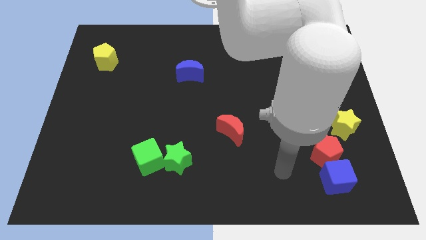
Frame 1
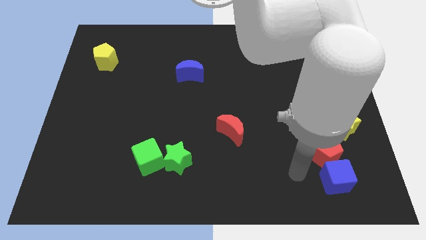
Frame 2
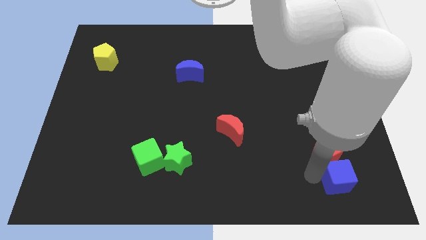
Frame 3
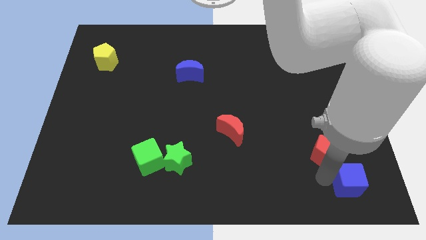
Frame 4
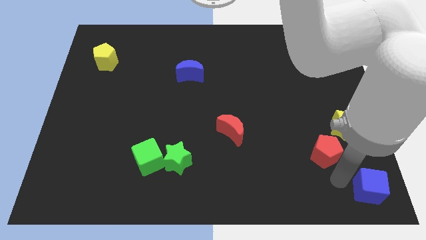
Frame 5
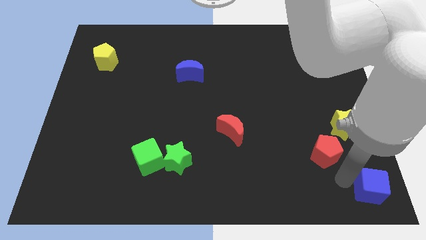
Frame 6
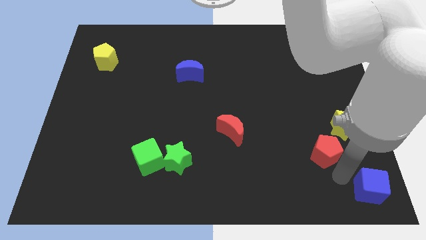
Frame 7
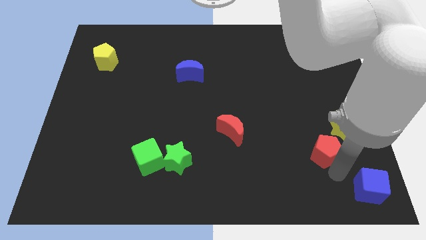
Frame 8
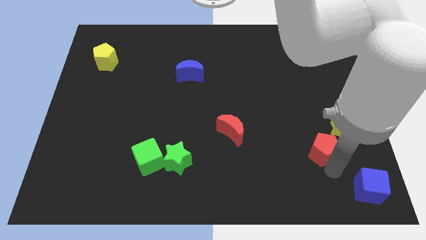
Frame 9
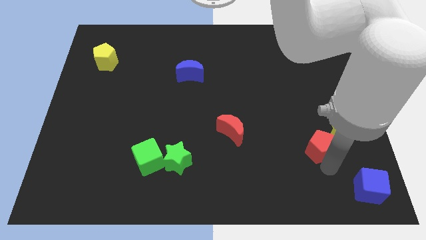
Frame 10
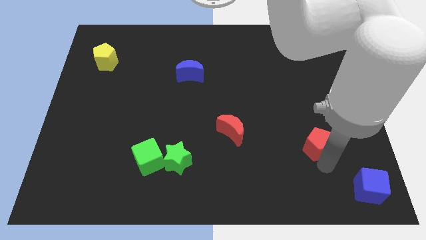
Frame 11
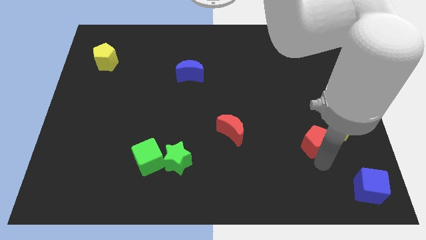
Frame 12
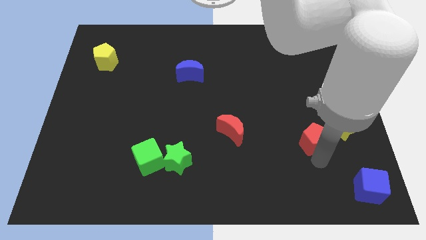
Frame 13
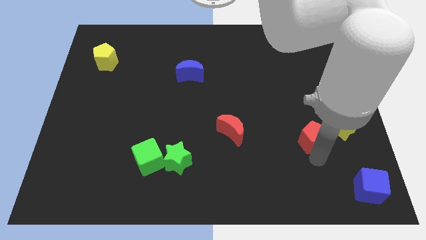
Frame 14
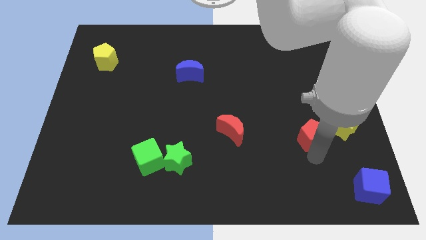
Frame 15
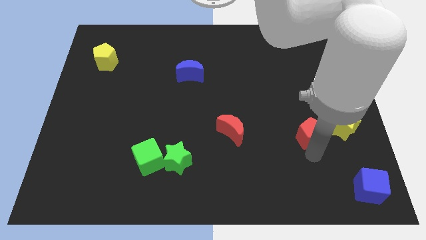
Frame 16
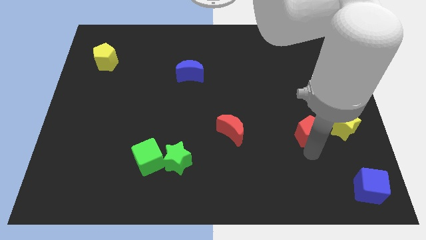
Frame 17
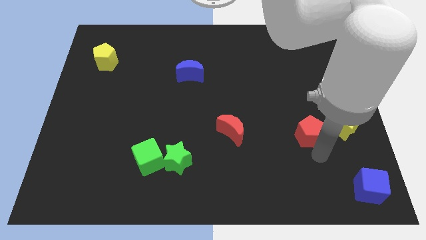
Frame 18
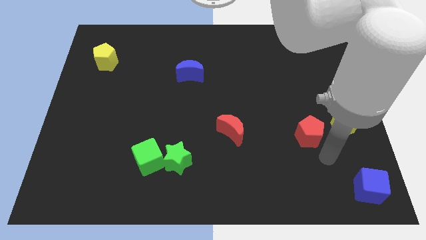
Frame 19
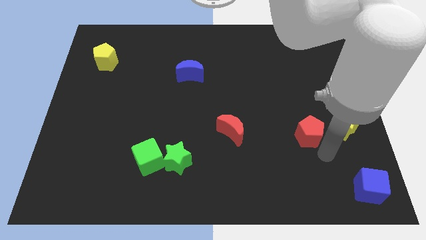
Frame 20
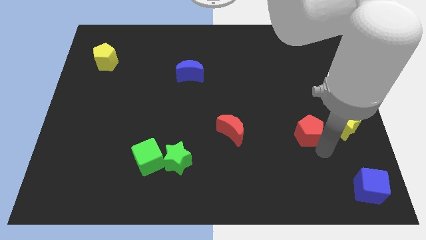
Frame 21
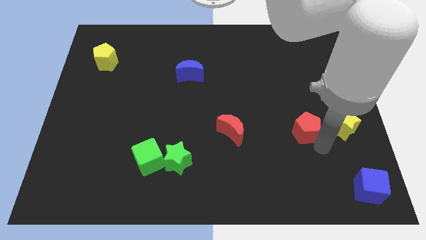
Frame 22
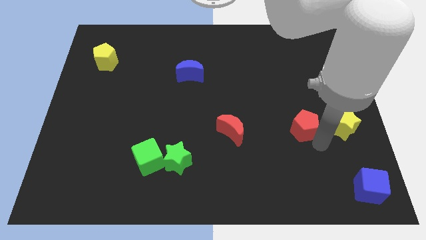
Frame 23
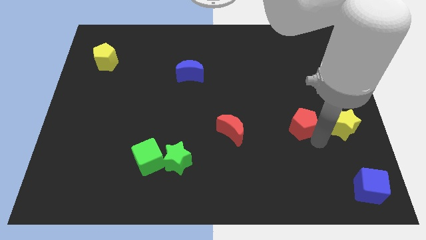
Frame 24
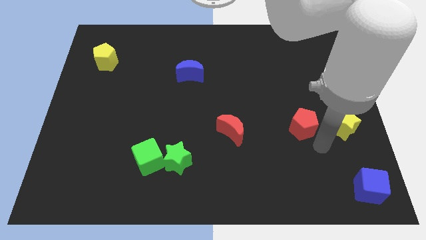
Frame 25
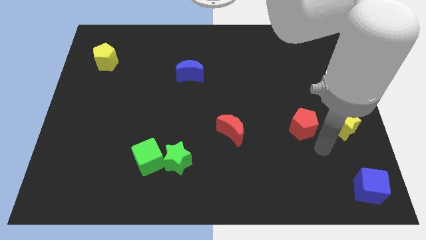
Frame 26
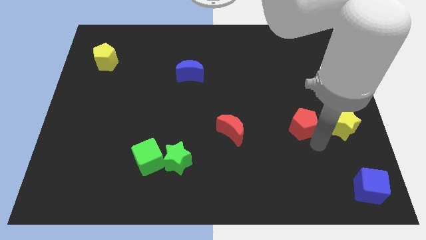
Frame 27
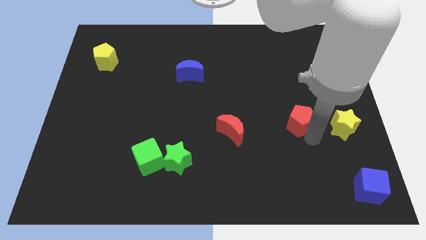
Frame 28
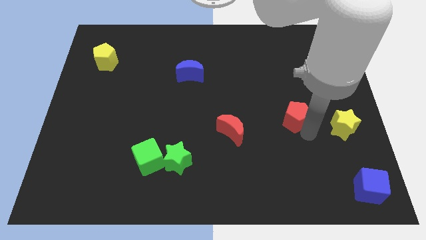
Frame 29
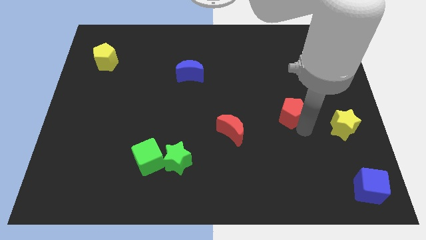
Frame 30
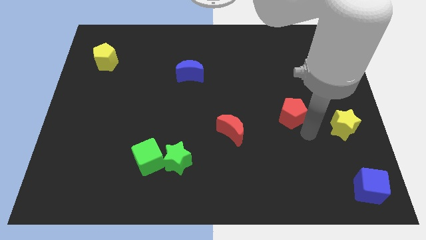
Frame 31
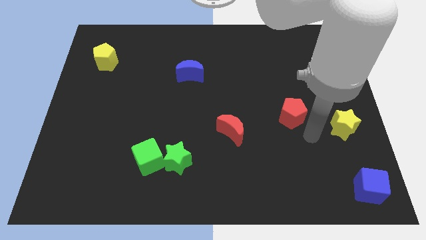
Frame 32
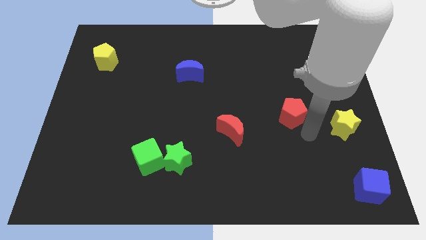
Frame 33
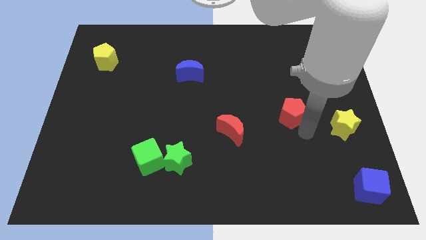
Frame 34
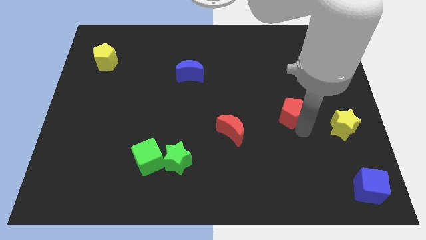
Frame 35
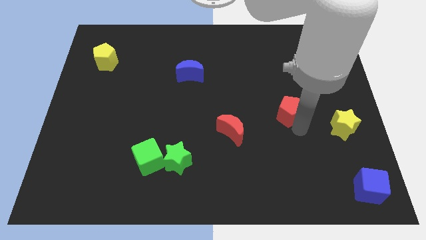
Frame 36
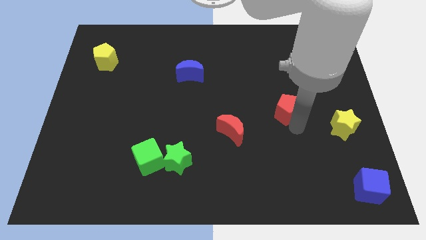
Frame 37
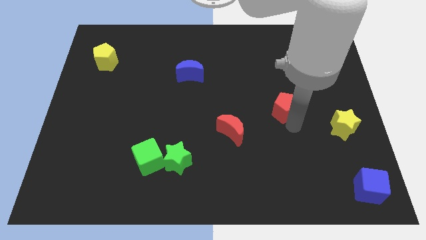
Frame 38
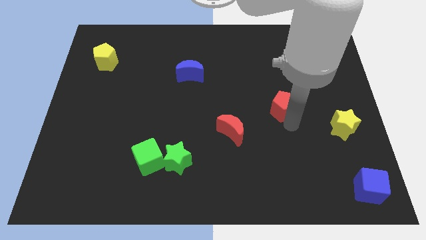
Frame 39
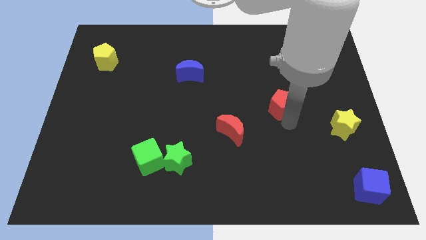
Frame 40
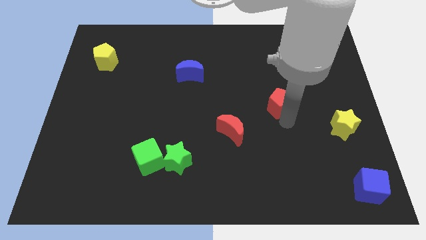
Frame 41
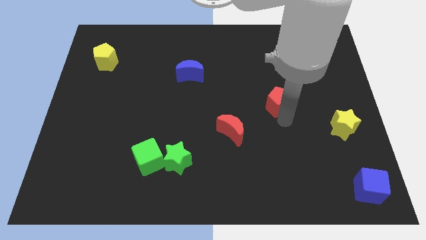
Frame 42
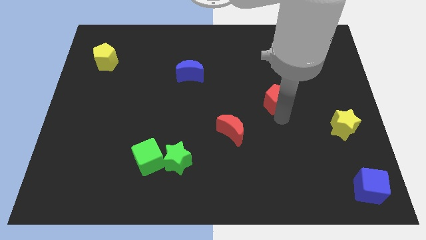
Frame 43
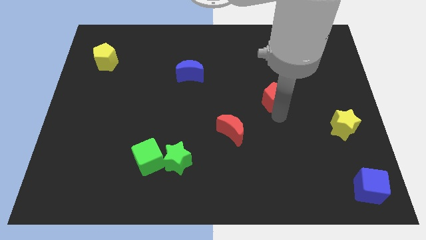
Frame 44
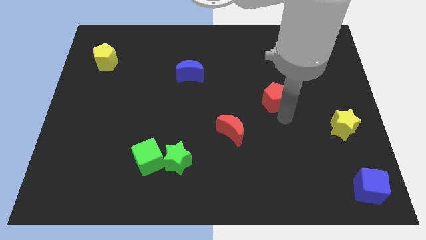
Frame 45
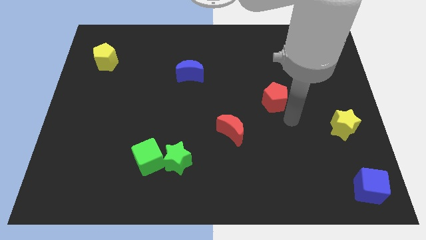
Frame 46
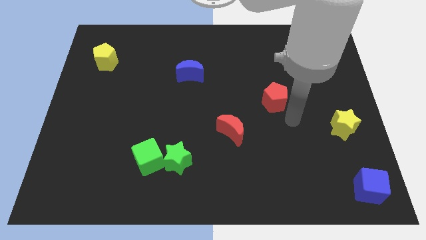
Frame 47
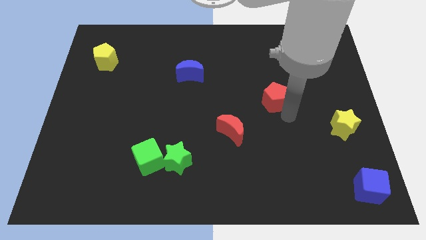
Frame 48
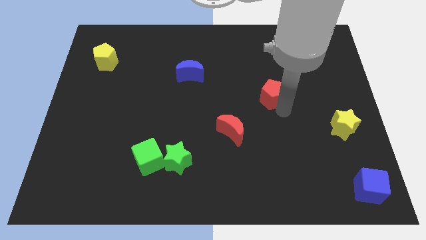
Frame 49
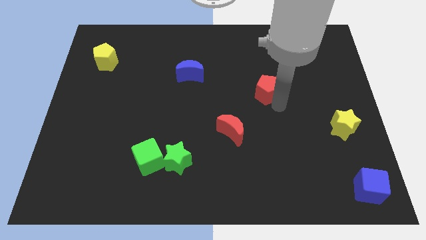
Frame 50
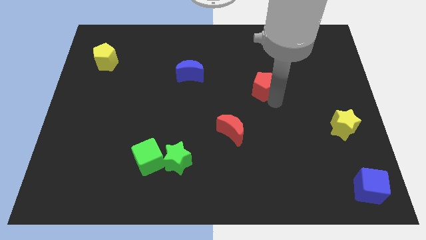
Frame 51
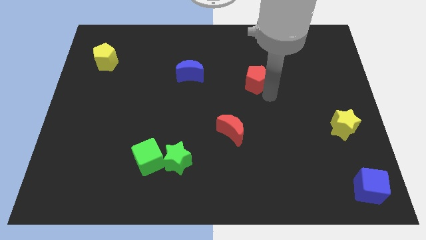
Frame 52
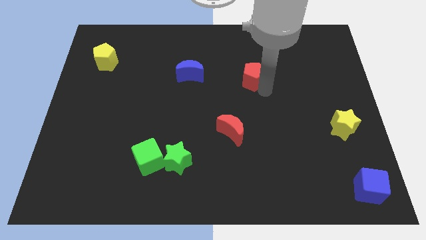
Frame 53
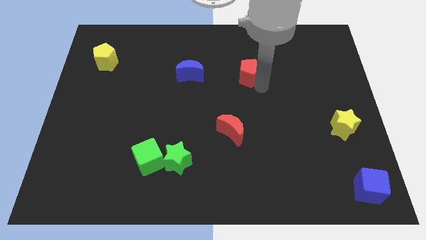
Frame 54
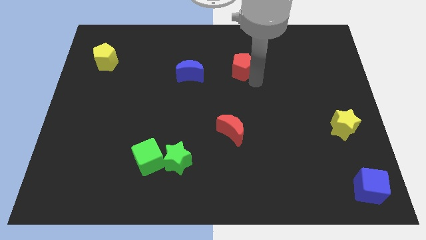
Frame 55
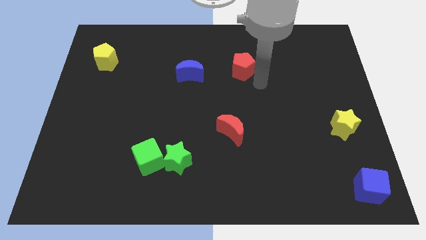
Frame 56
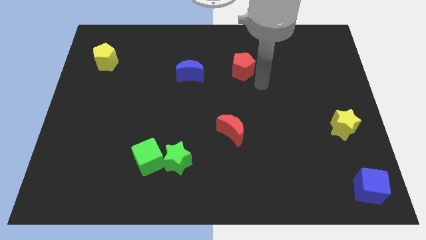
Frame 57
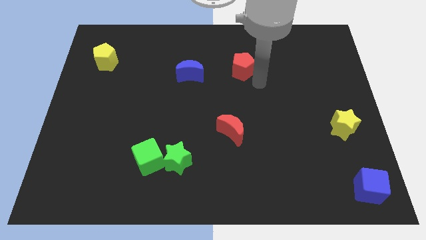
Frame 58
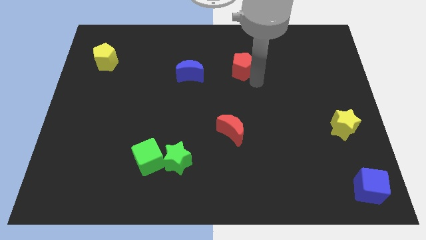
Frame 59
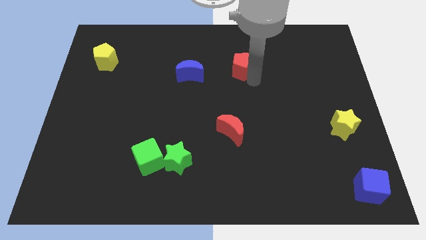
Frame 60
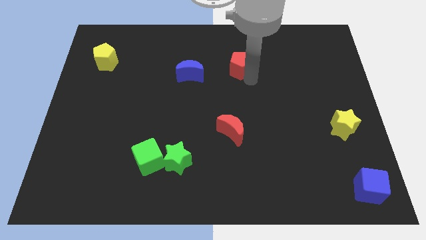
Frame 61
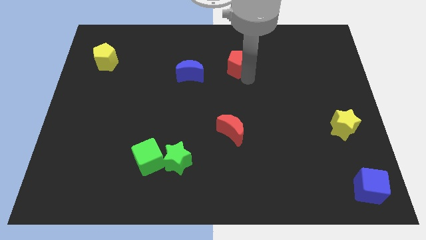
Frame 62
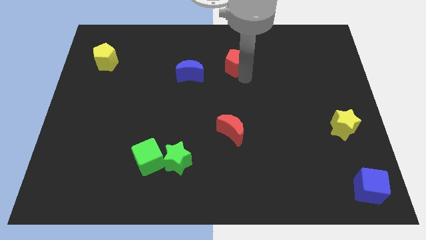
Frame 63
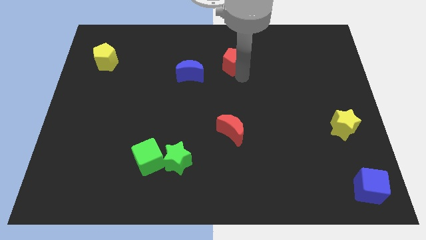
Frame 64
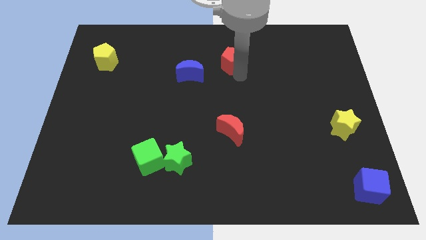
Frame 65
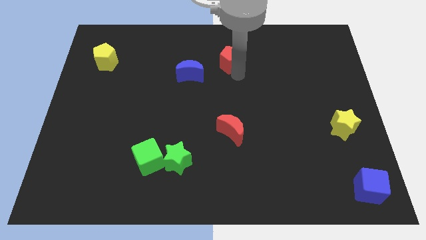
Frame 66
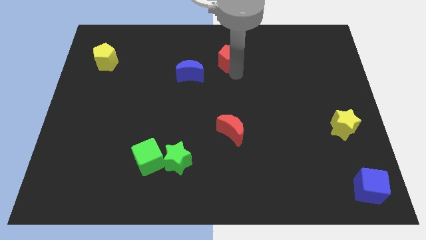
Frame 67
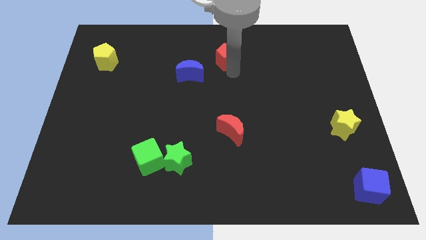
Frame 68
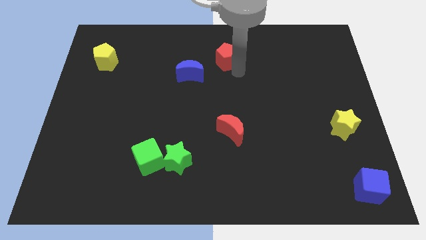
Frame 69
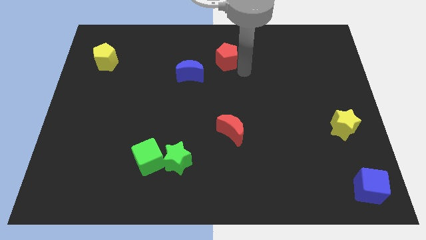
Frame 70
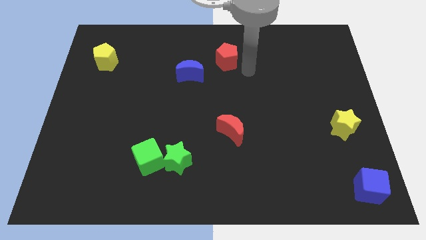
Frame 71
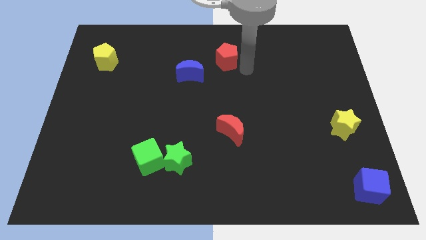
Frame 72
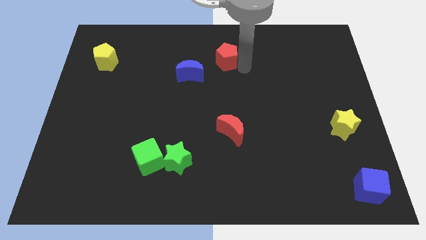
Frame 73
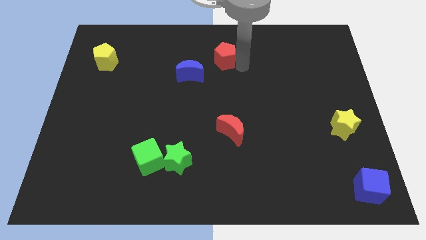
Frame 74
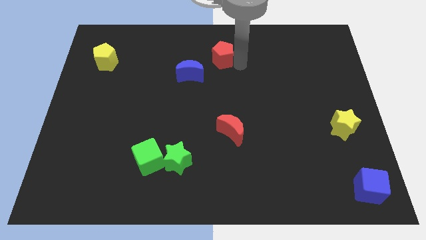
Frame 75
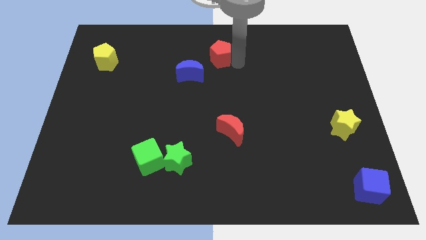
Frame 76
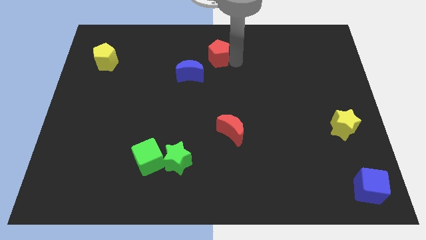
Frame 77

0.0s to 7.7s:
put the red pentagon to the towards your base
